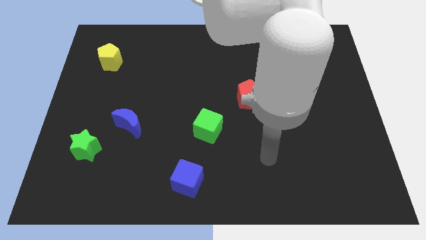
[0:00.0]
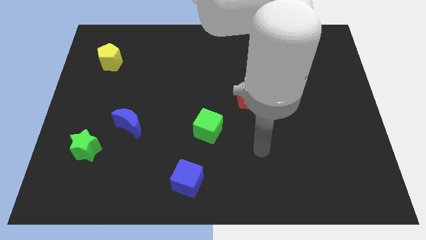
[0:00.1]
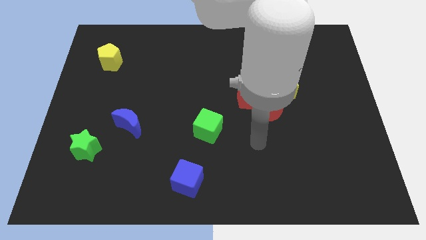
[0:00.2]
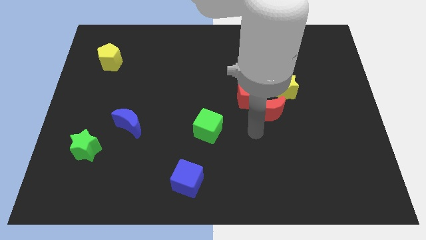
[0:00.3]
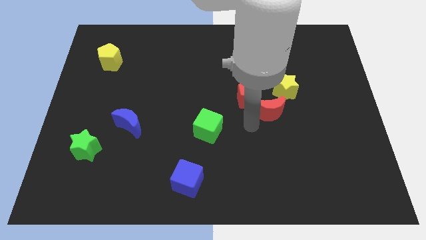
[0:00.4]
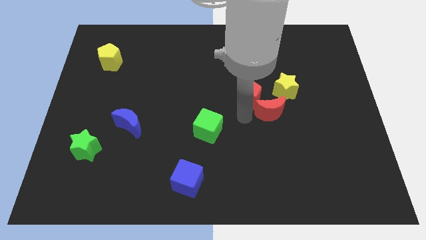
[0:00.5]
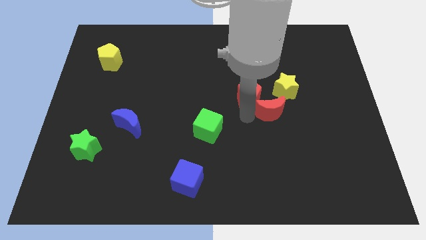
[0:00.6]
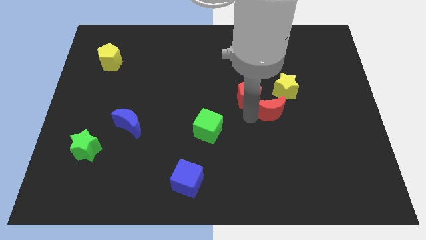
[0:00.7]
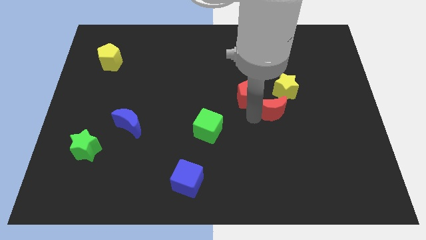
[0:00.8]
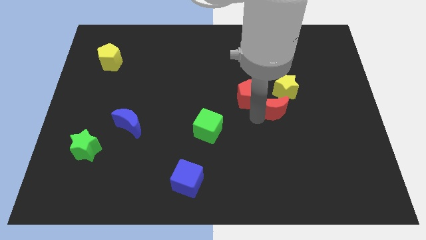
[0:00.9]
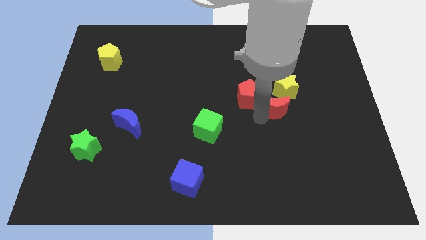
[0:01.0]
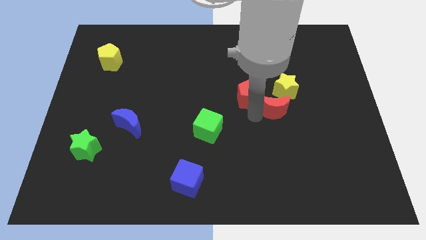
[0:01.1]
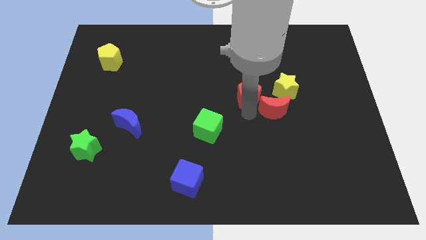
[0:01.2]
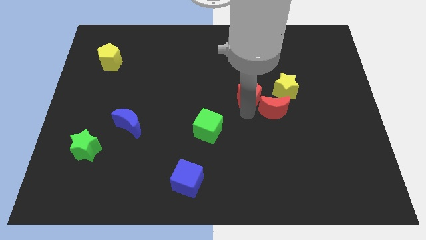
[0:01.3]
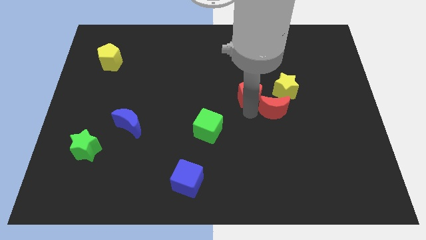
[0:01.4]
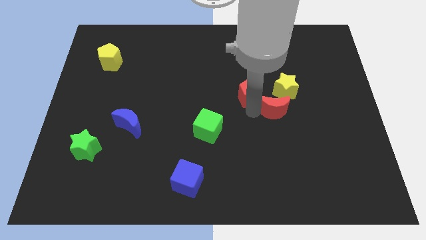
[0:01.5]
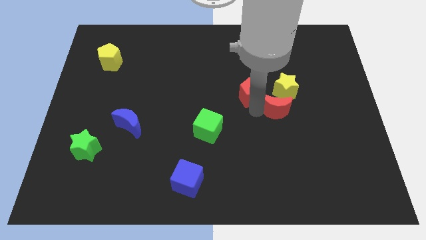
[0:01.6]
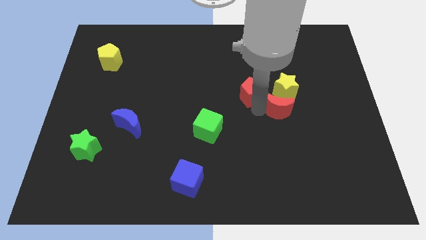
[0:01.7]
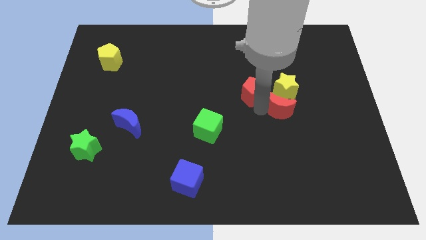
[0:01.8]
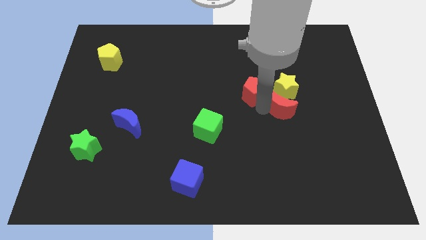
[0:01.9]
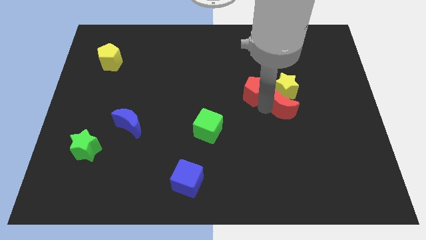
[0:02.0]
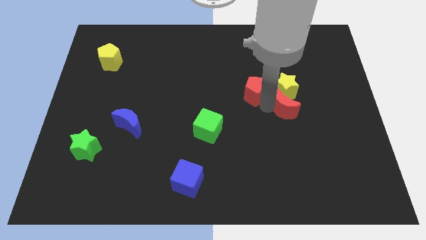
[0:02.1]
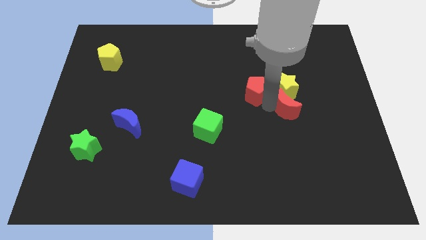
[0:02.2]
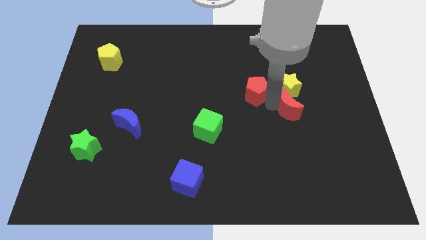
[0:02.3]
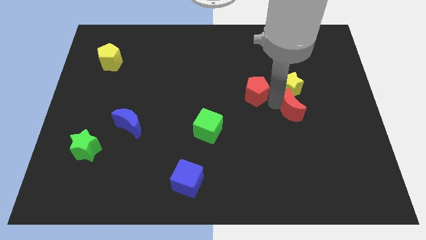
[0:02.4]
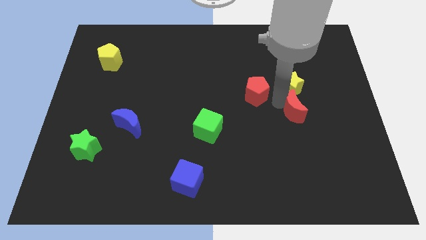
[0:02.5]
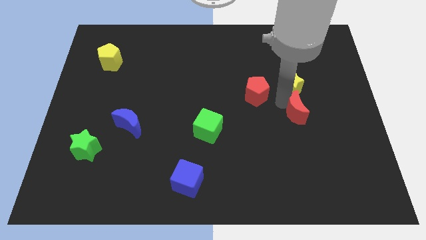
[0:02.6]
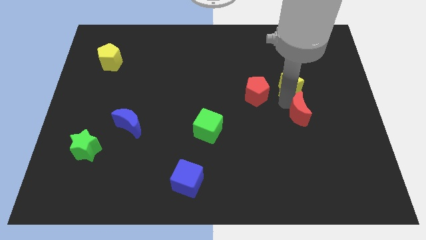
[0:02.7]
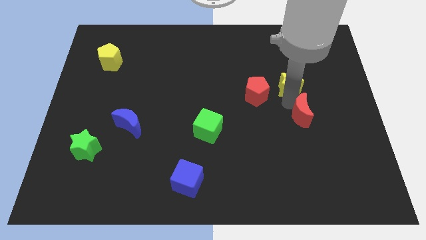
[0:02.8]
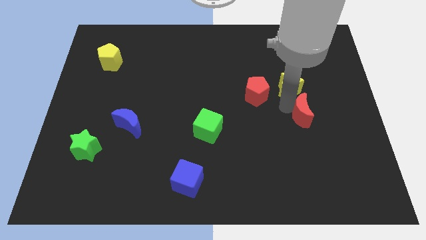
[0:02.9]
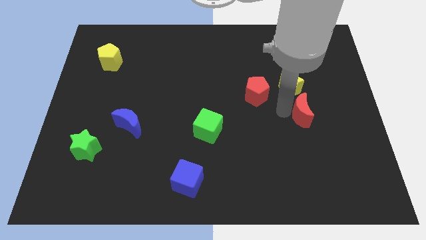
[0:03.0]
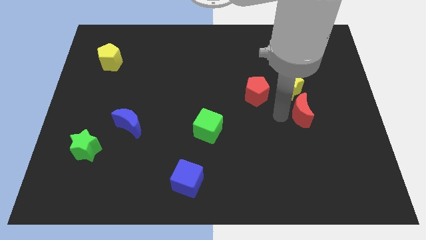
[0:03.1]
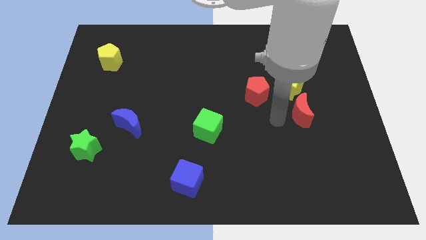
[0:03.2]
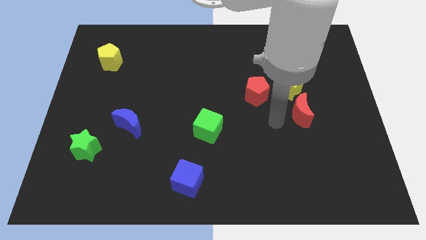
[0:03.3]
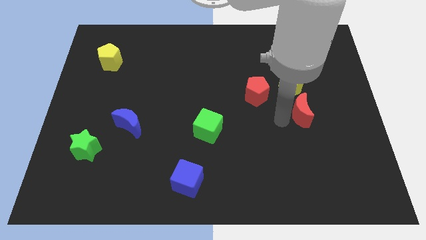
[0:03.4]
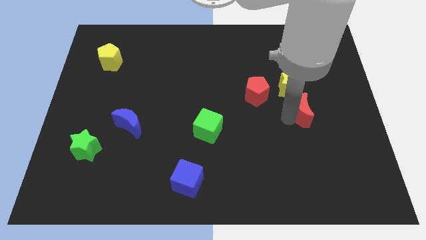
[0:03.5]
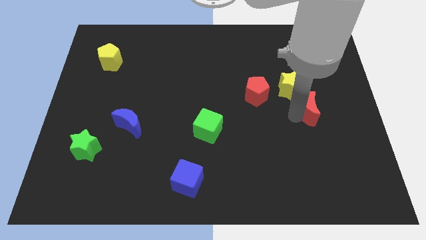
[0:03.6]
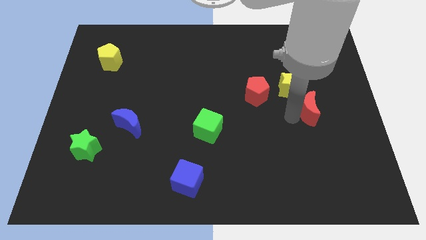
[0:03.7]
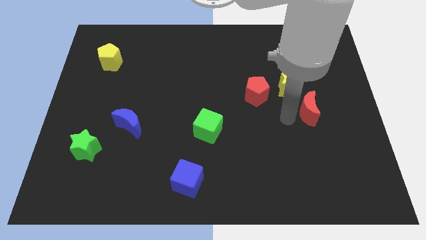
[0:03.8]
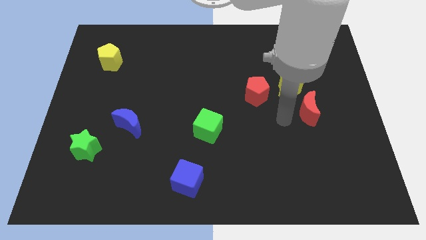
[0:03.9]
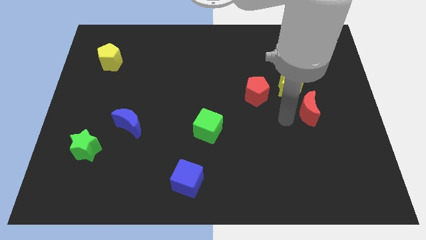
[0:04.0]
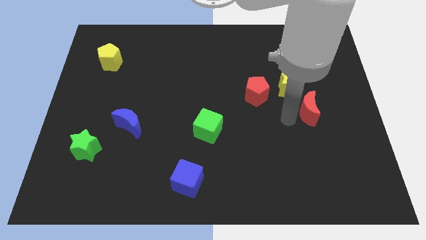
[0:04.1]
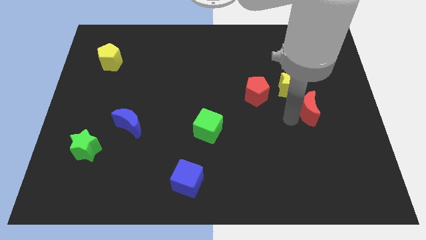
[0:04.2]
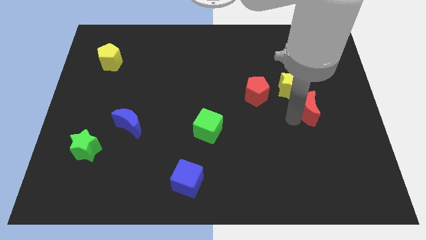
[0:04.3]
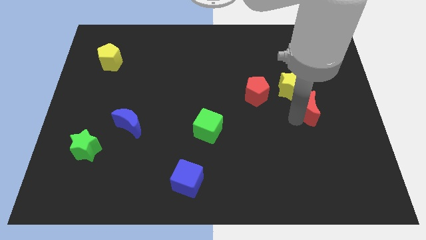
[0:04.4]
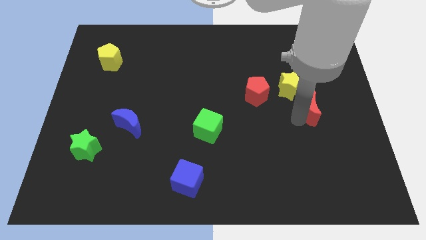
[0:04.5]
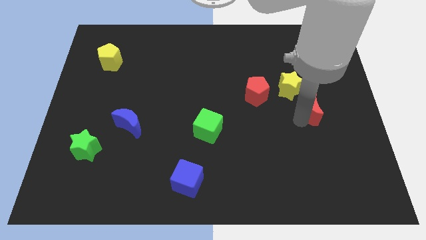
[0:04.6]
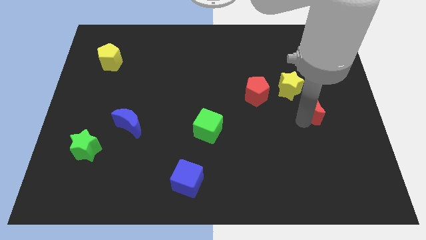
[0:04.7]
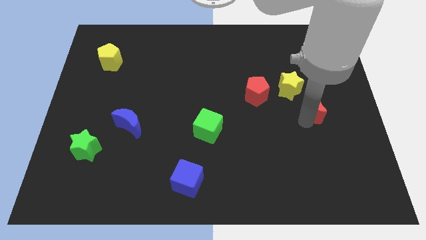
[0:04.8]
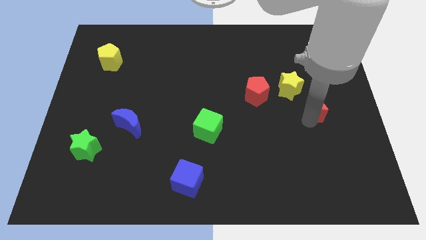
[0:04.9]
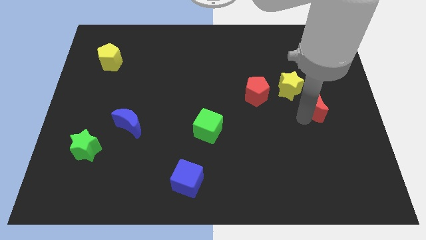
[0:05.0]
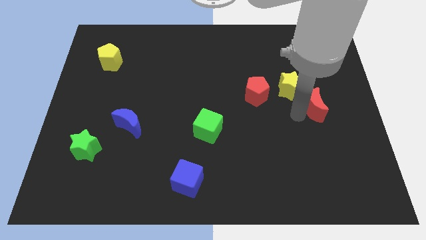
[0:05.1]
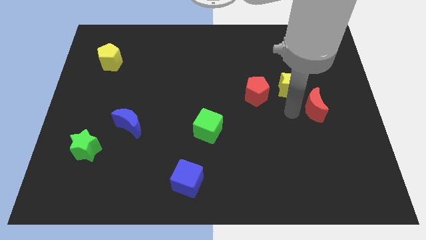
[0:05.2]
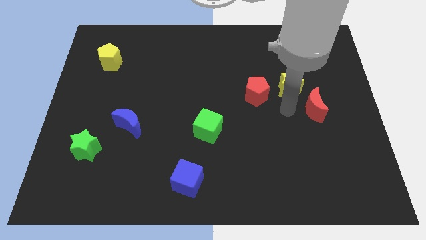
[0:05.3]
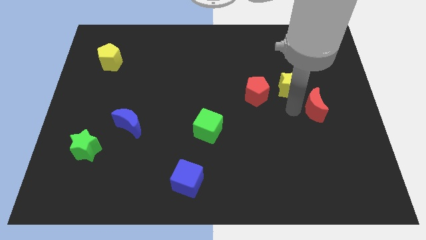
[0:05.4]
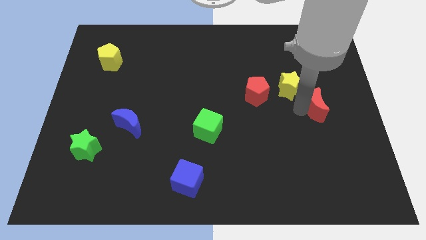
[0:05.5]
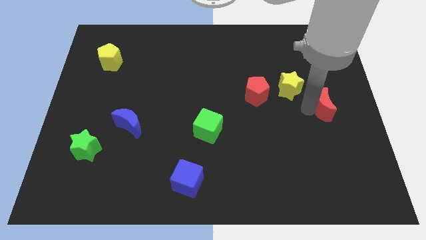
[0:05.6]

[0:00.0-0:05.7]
slide the red moon to the right side of the board
